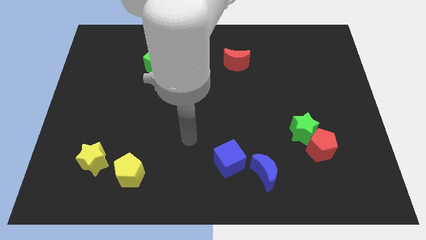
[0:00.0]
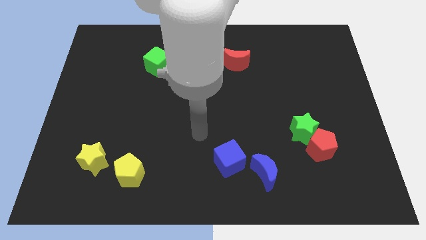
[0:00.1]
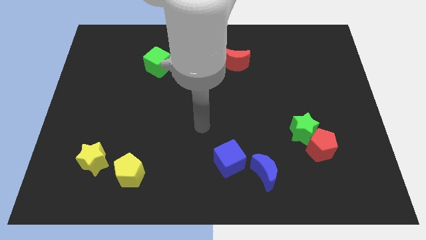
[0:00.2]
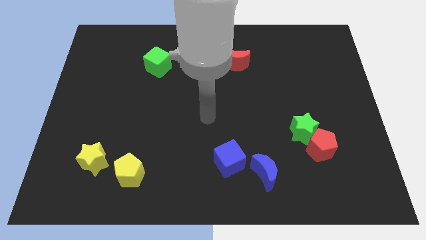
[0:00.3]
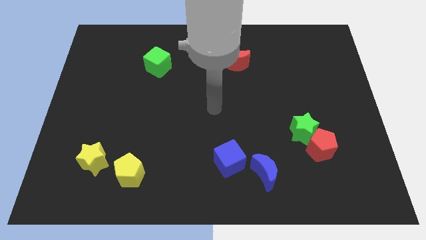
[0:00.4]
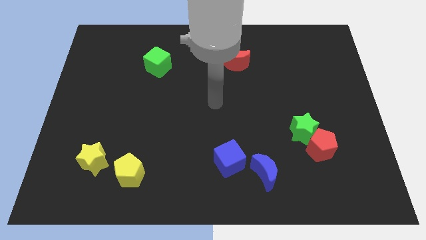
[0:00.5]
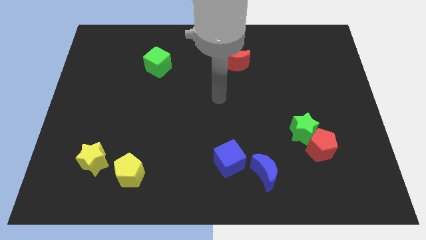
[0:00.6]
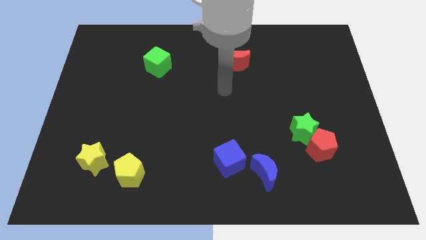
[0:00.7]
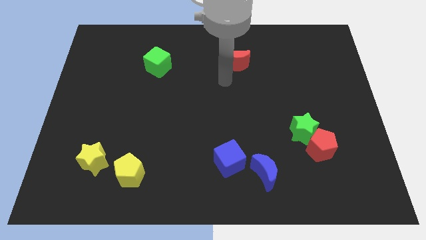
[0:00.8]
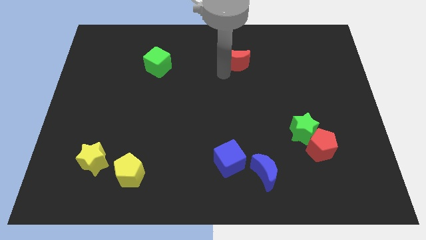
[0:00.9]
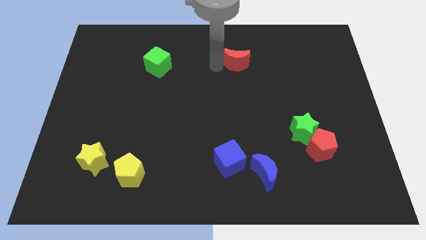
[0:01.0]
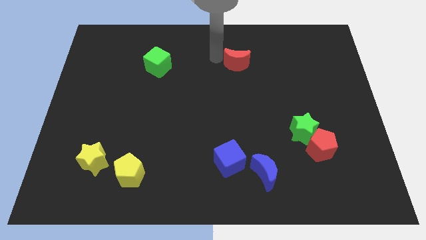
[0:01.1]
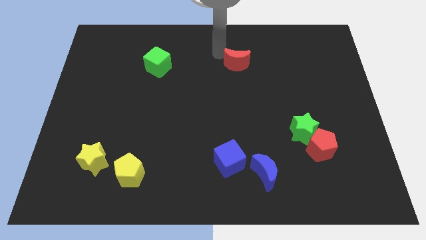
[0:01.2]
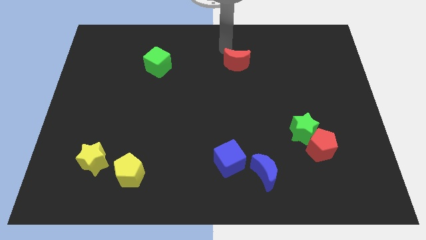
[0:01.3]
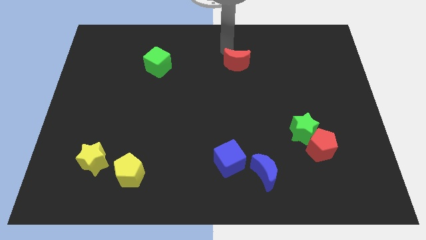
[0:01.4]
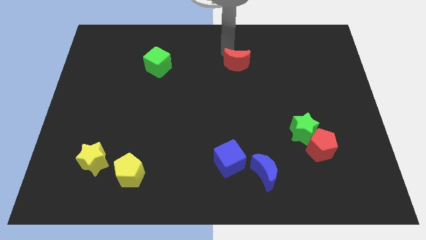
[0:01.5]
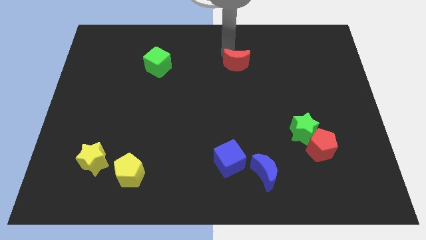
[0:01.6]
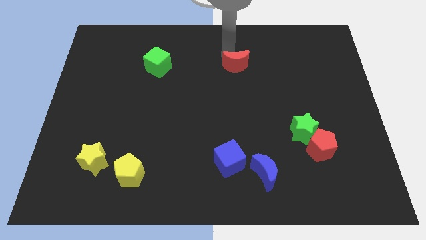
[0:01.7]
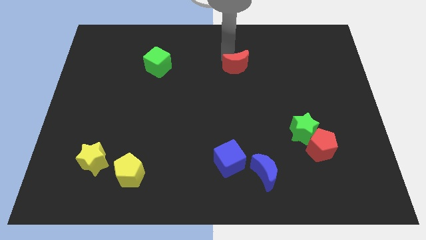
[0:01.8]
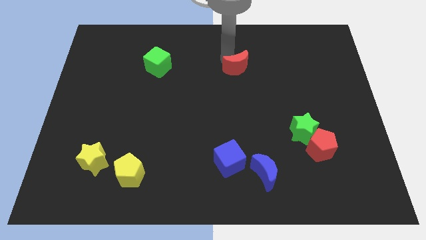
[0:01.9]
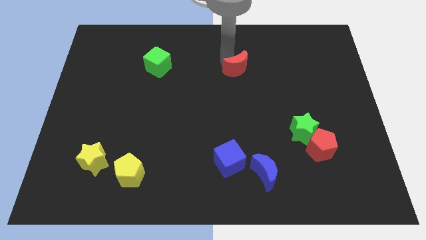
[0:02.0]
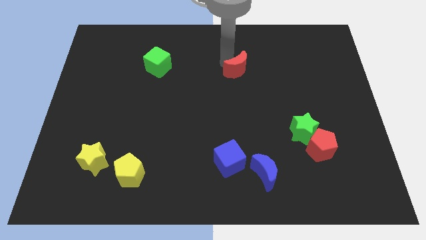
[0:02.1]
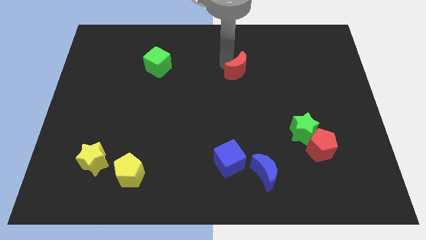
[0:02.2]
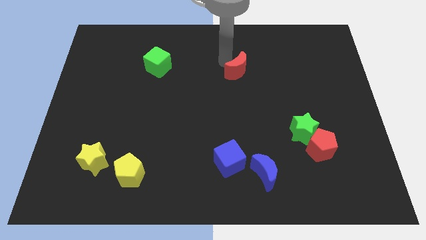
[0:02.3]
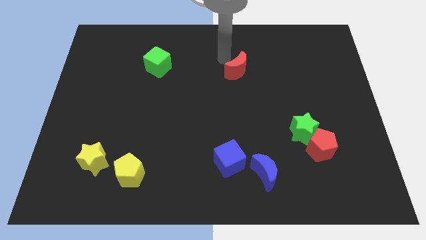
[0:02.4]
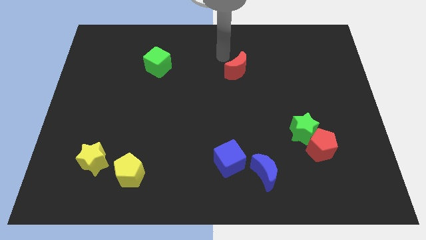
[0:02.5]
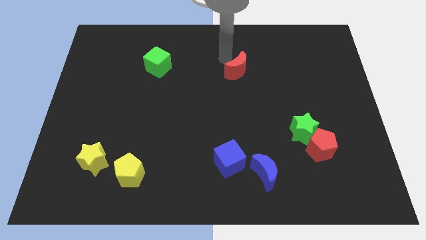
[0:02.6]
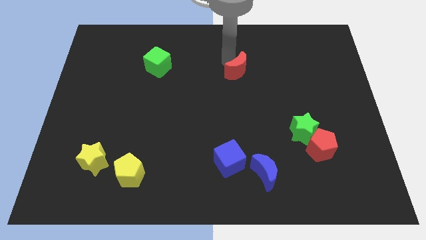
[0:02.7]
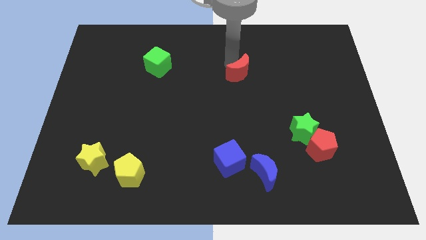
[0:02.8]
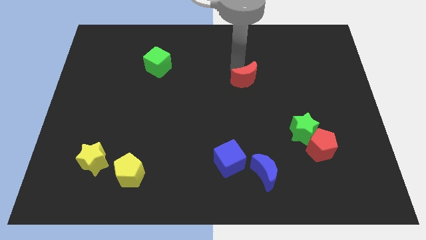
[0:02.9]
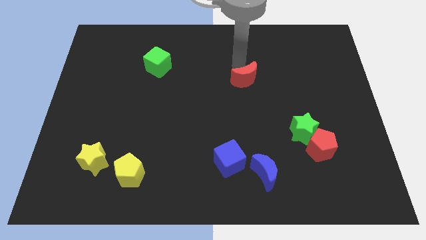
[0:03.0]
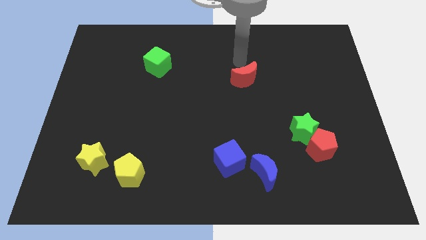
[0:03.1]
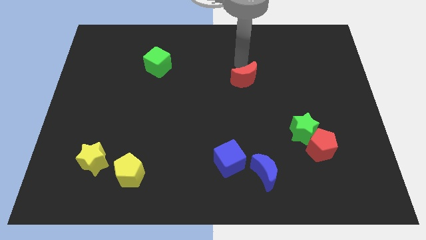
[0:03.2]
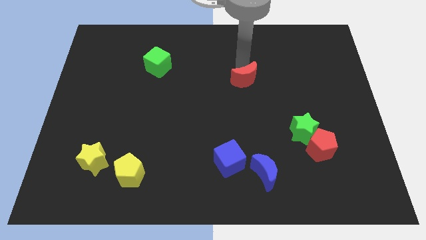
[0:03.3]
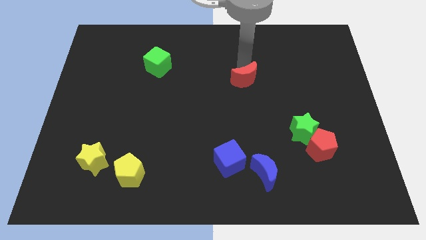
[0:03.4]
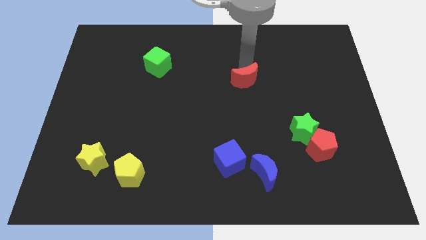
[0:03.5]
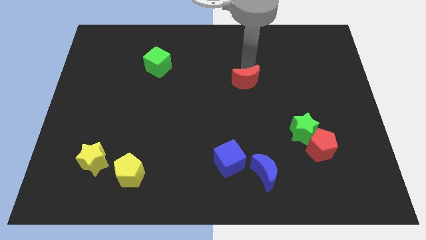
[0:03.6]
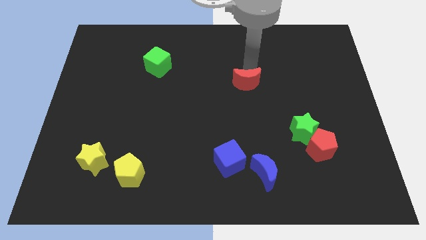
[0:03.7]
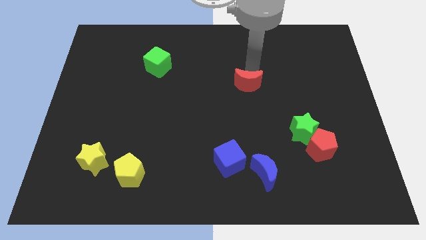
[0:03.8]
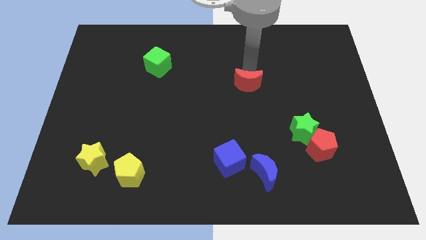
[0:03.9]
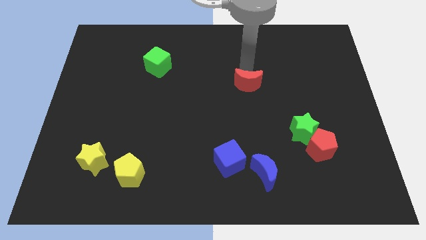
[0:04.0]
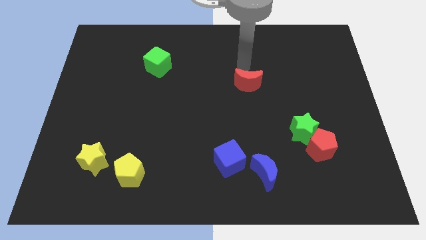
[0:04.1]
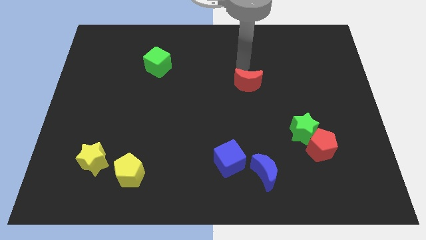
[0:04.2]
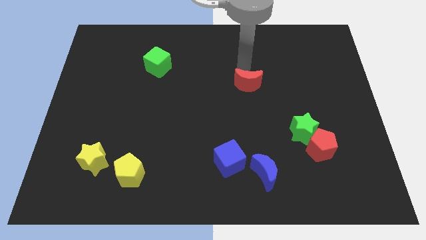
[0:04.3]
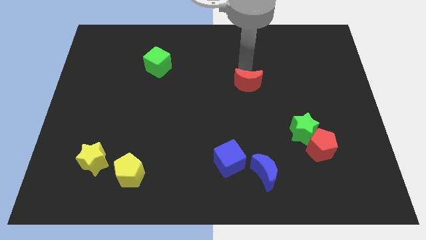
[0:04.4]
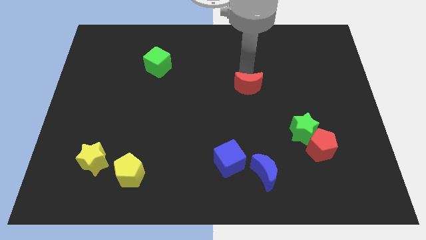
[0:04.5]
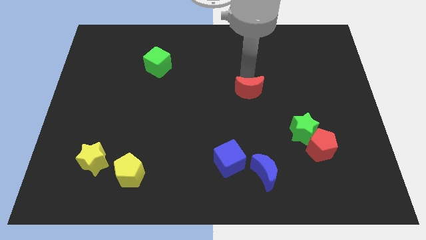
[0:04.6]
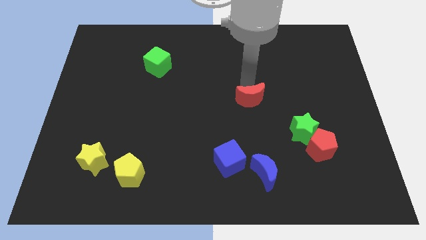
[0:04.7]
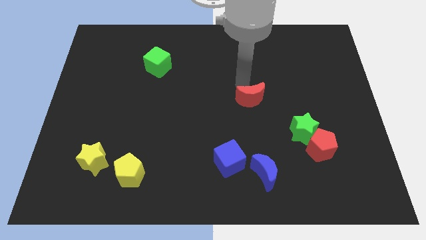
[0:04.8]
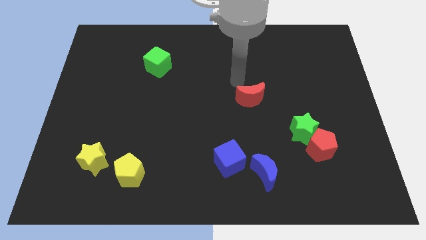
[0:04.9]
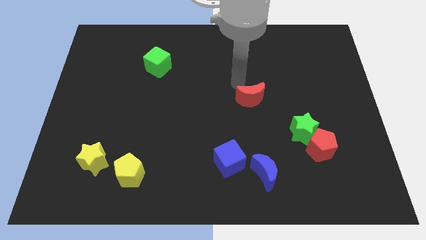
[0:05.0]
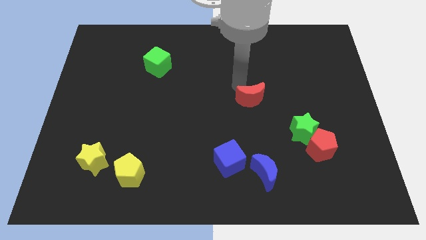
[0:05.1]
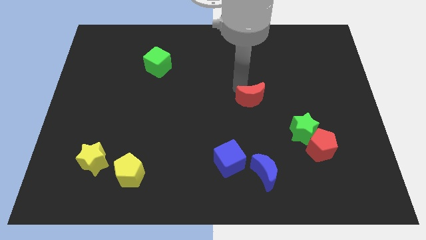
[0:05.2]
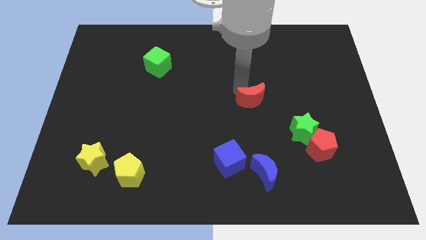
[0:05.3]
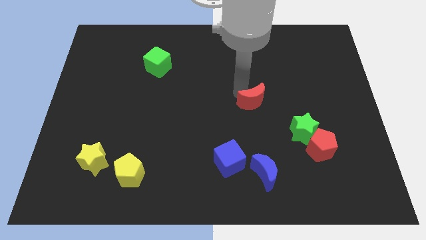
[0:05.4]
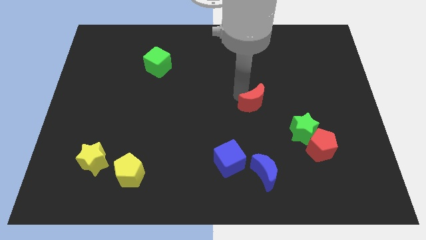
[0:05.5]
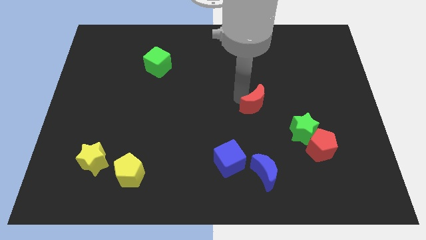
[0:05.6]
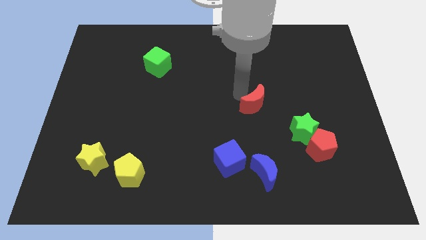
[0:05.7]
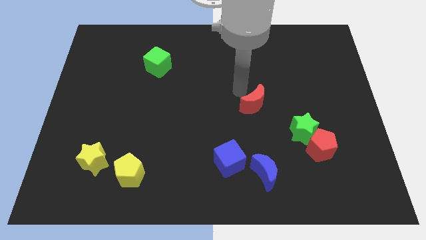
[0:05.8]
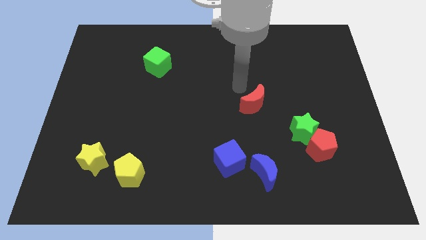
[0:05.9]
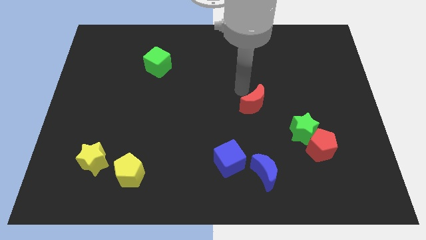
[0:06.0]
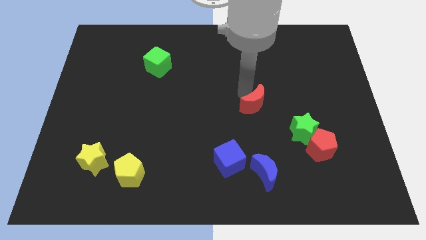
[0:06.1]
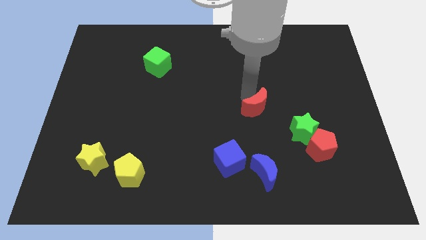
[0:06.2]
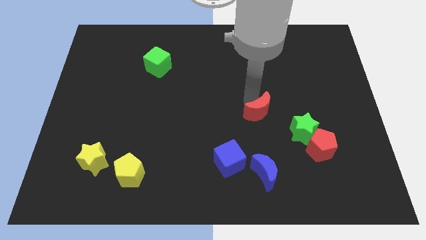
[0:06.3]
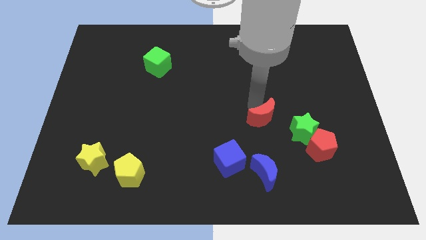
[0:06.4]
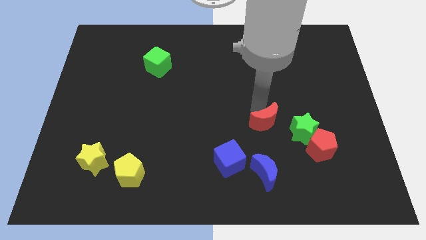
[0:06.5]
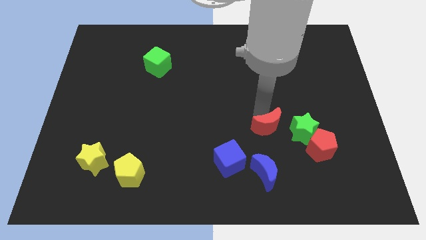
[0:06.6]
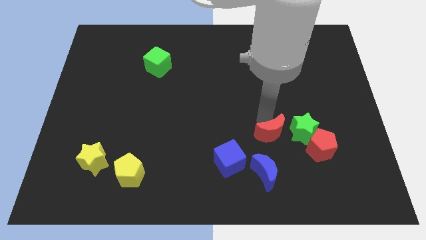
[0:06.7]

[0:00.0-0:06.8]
move the red moon down

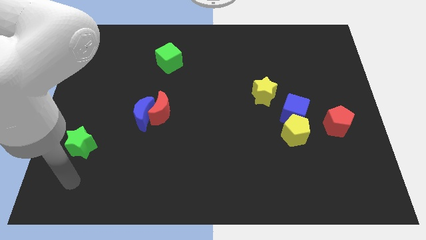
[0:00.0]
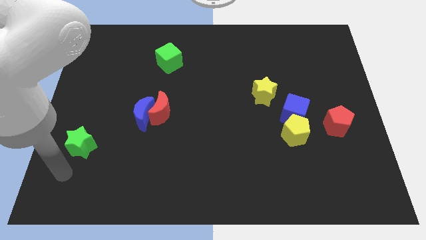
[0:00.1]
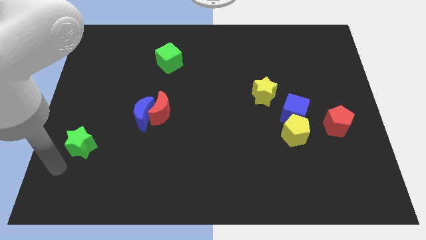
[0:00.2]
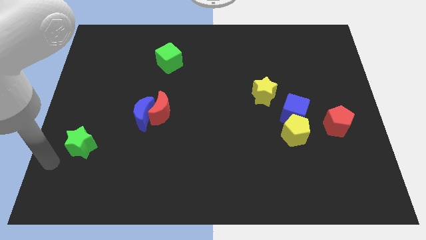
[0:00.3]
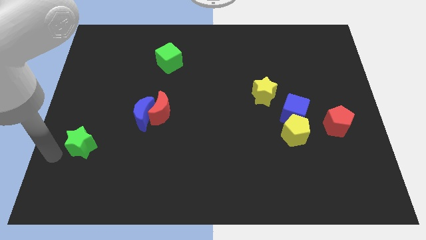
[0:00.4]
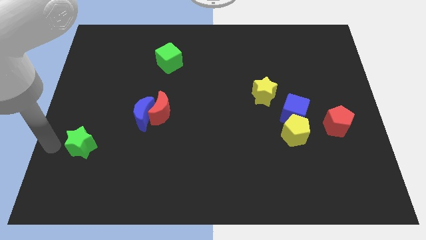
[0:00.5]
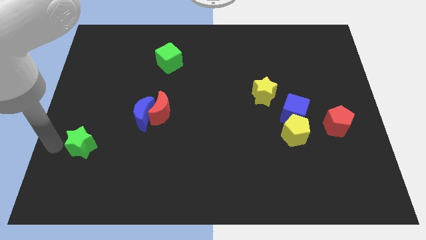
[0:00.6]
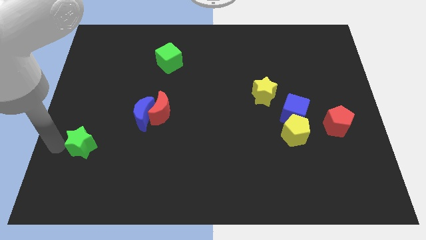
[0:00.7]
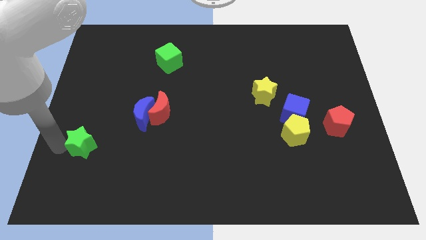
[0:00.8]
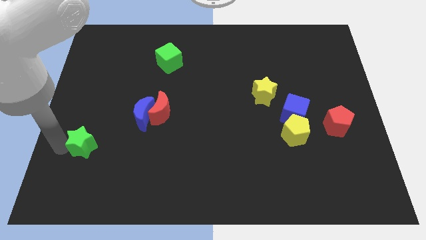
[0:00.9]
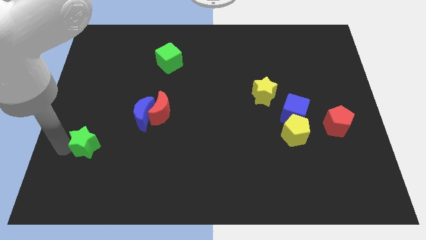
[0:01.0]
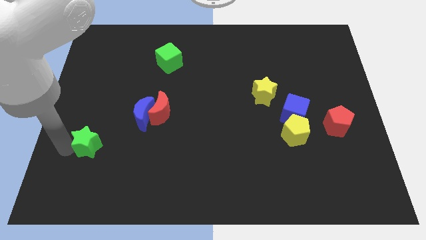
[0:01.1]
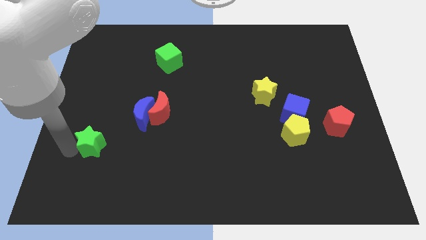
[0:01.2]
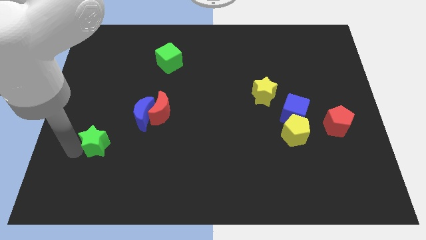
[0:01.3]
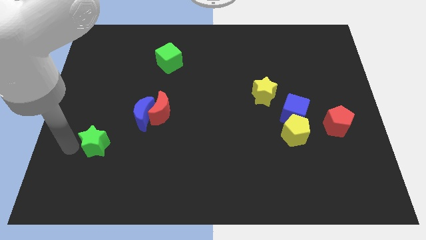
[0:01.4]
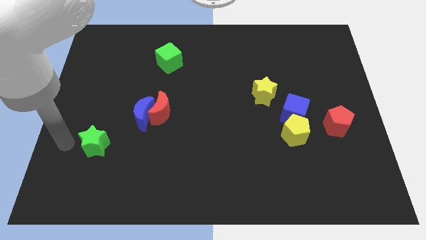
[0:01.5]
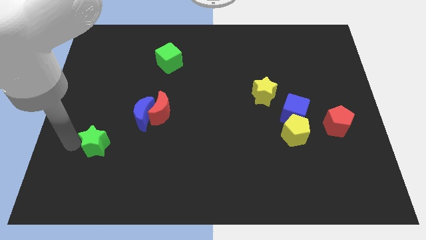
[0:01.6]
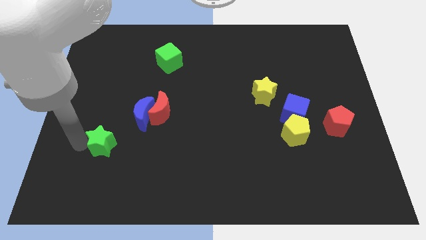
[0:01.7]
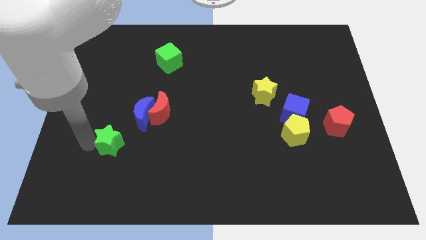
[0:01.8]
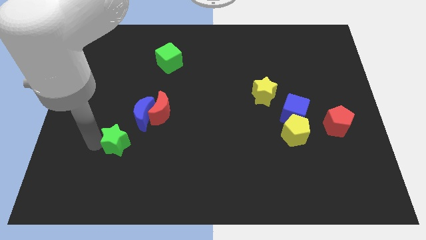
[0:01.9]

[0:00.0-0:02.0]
push the green star right a little bit
